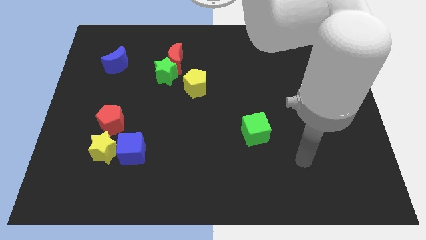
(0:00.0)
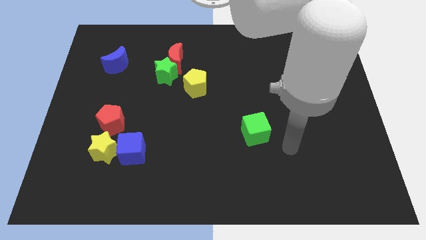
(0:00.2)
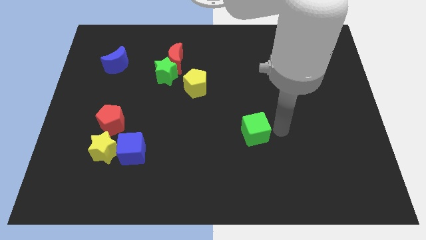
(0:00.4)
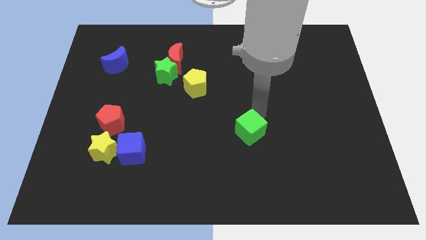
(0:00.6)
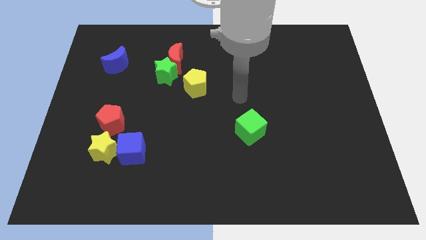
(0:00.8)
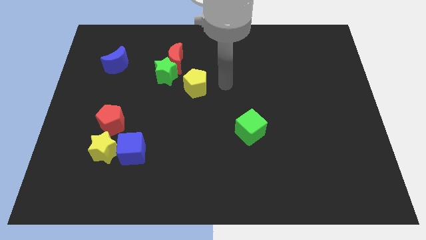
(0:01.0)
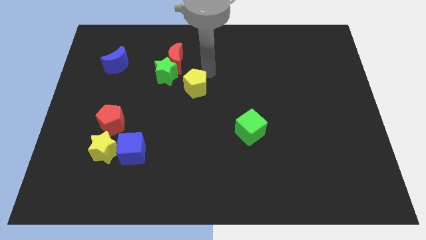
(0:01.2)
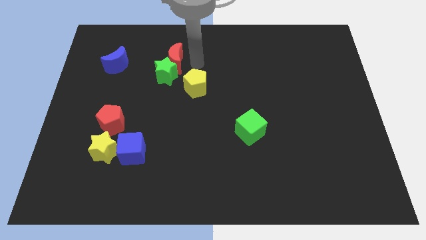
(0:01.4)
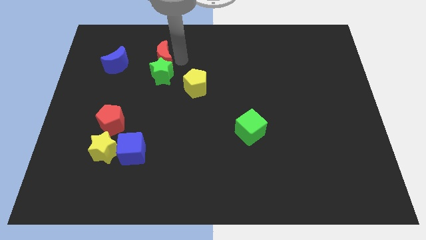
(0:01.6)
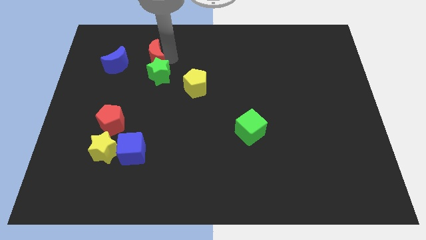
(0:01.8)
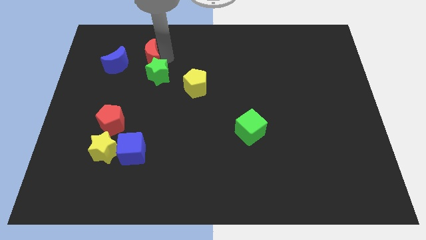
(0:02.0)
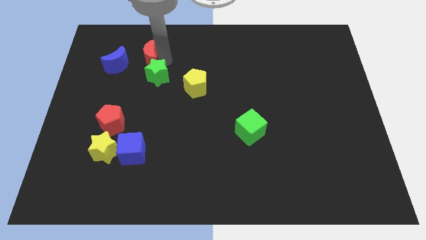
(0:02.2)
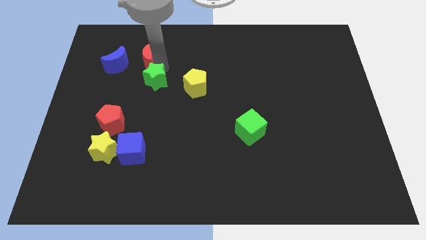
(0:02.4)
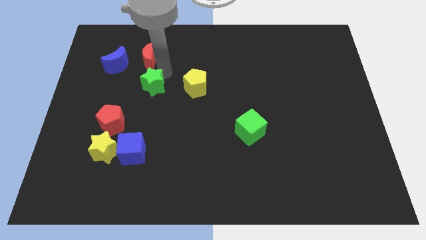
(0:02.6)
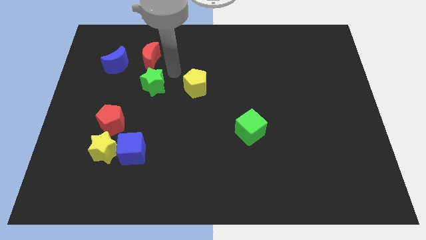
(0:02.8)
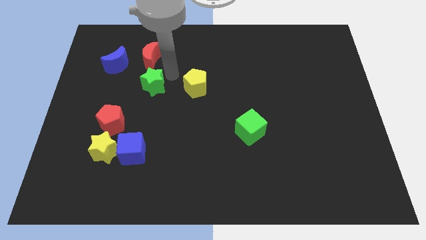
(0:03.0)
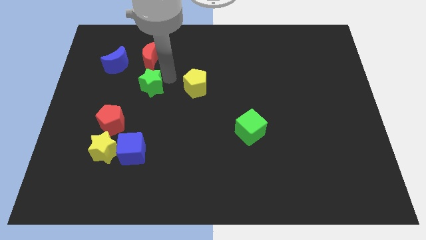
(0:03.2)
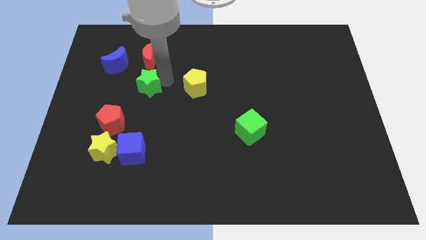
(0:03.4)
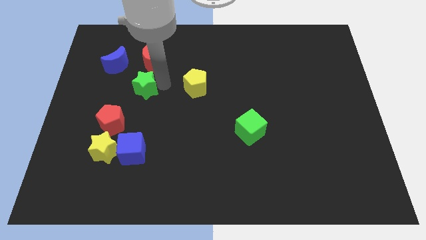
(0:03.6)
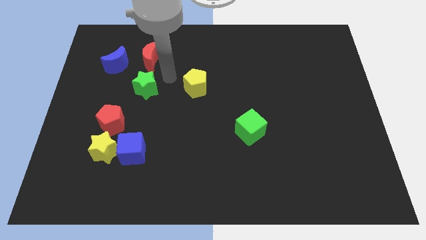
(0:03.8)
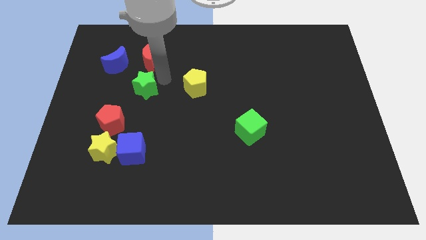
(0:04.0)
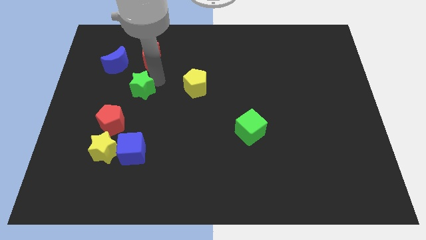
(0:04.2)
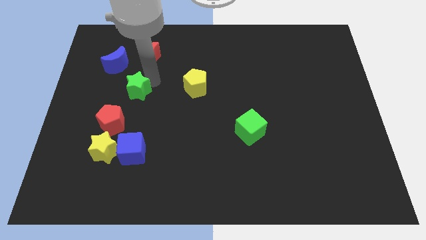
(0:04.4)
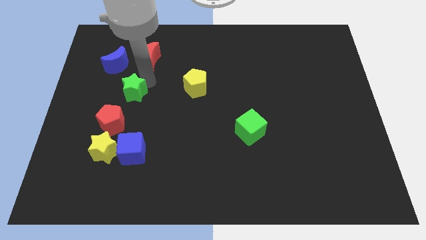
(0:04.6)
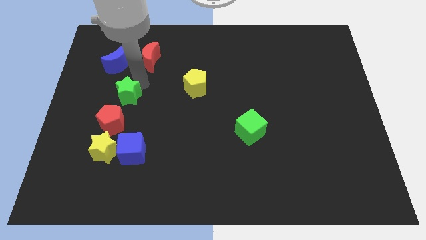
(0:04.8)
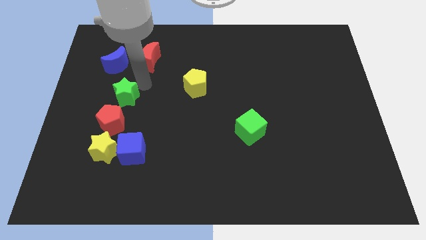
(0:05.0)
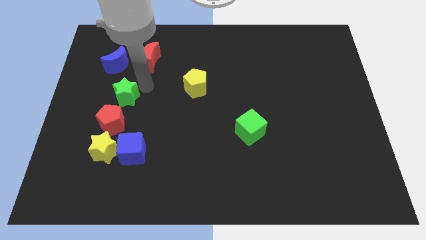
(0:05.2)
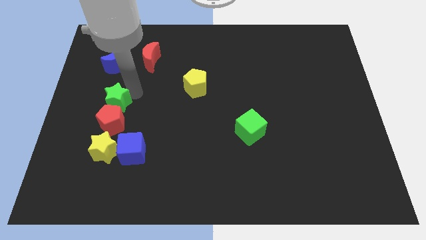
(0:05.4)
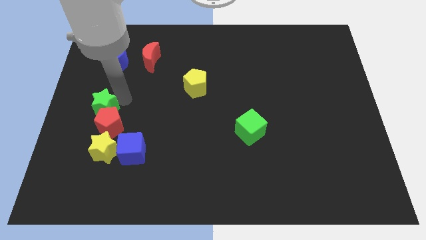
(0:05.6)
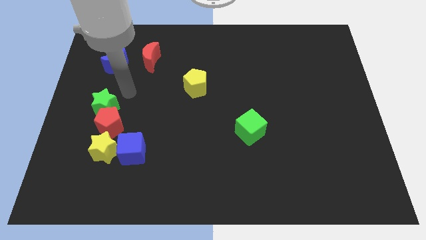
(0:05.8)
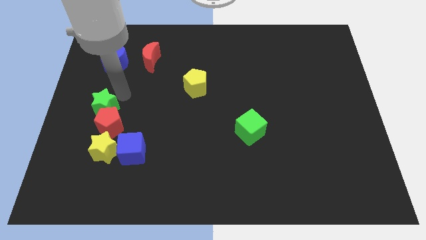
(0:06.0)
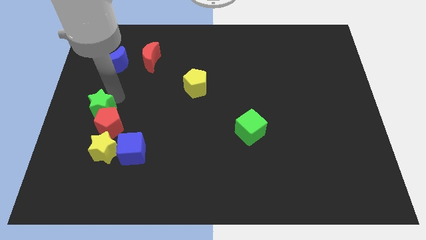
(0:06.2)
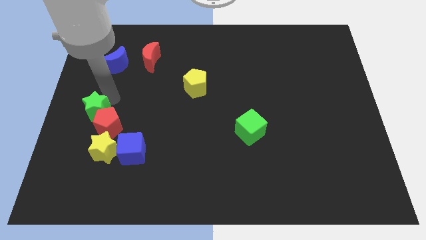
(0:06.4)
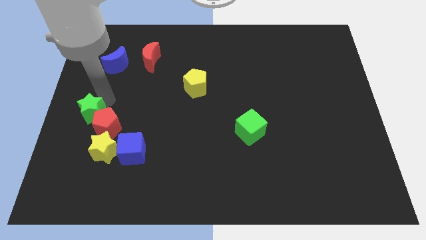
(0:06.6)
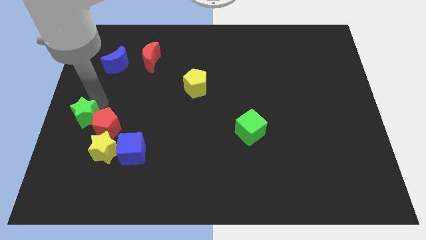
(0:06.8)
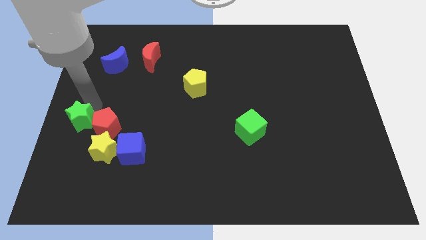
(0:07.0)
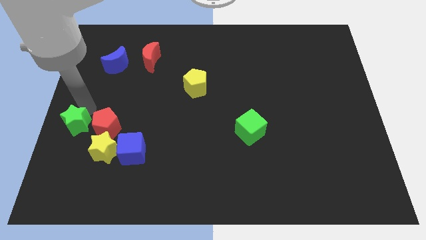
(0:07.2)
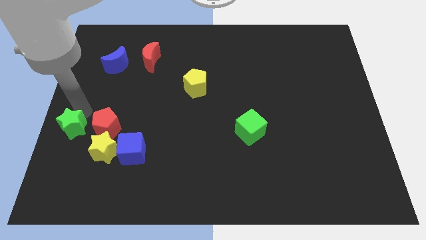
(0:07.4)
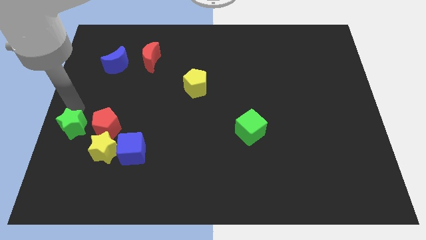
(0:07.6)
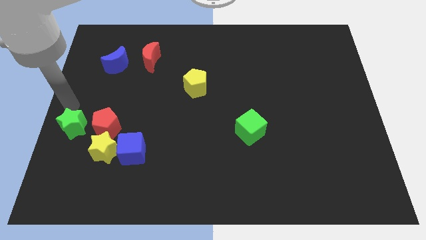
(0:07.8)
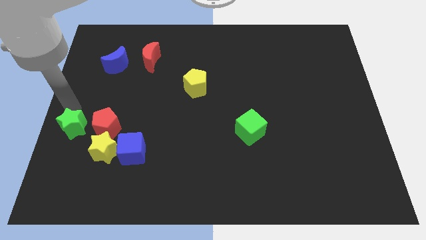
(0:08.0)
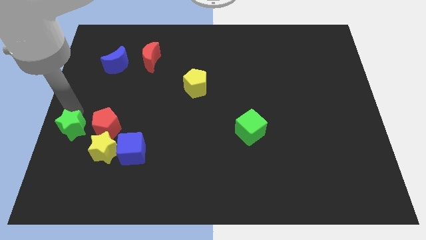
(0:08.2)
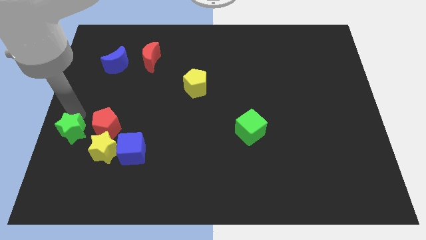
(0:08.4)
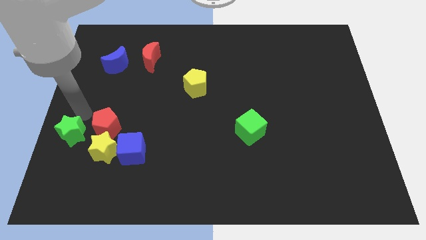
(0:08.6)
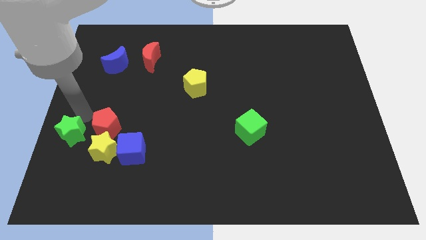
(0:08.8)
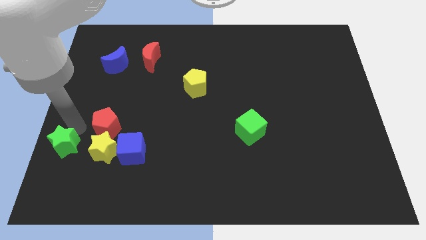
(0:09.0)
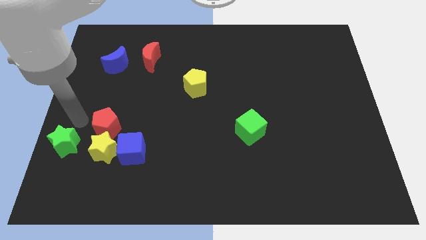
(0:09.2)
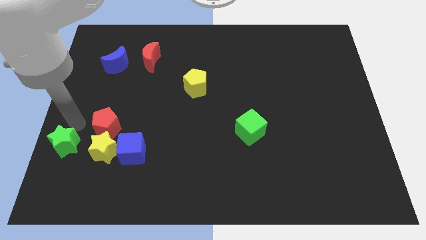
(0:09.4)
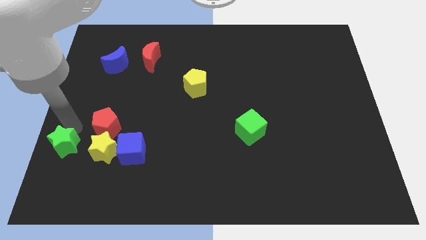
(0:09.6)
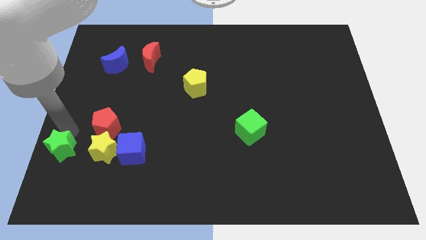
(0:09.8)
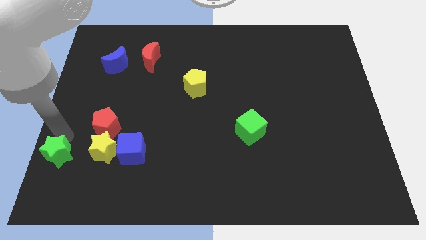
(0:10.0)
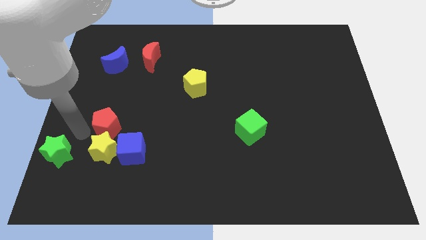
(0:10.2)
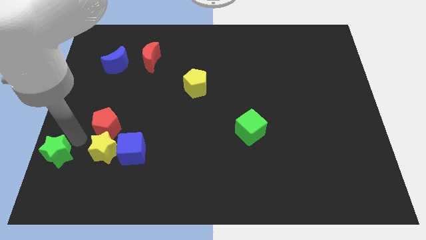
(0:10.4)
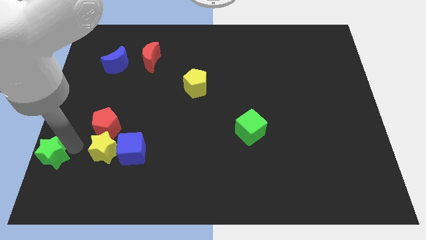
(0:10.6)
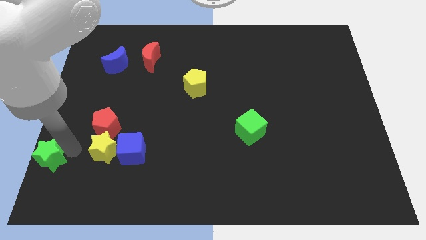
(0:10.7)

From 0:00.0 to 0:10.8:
put the green star to the bottom left corner

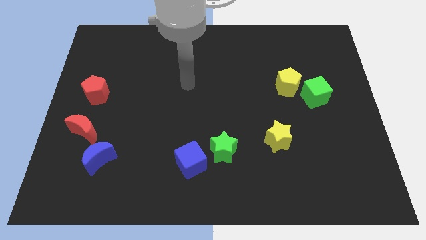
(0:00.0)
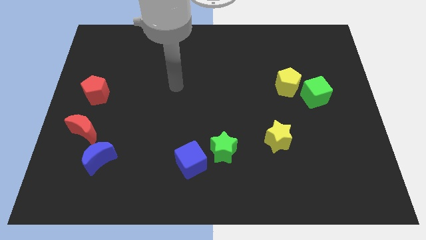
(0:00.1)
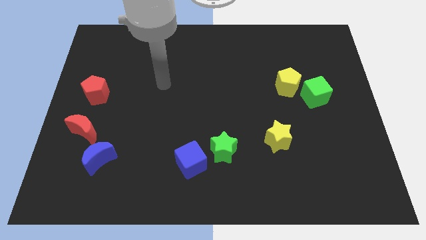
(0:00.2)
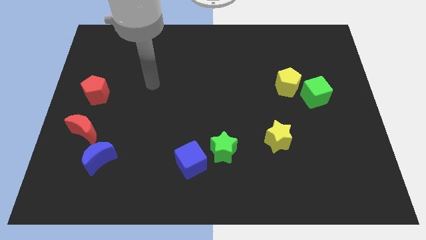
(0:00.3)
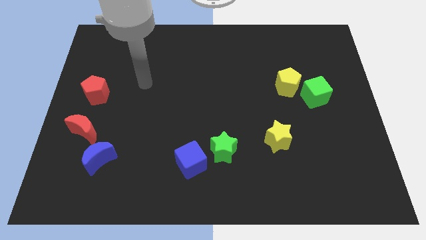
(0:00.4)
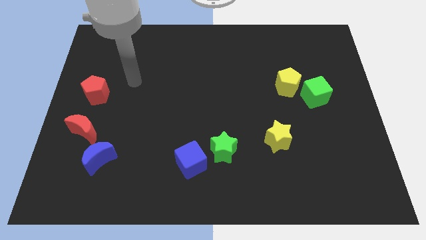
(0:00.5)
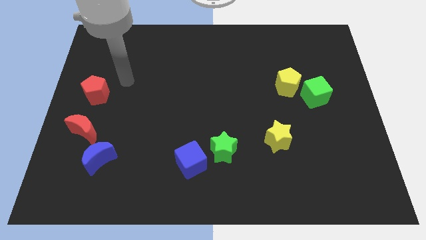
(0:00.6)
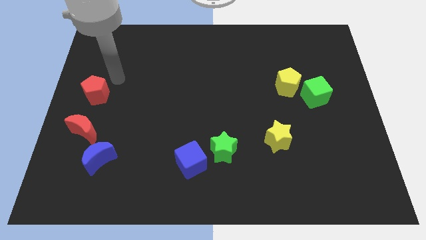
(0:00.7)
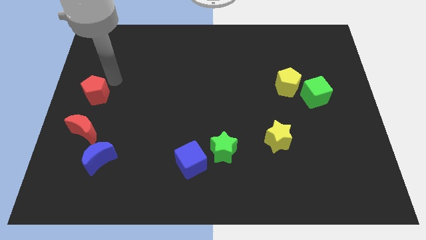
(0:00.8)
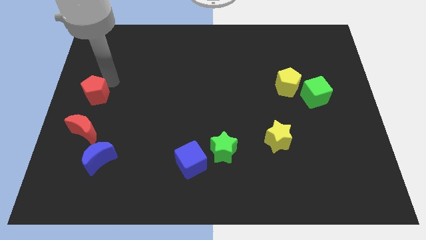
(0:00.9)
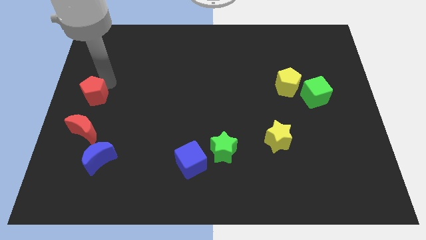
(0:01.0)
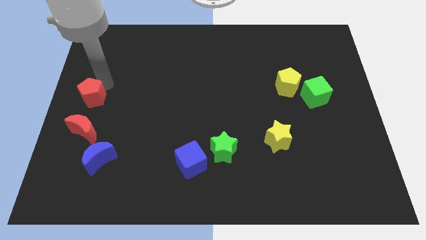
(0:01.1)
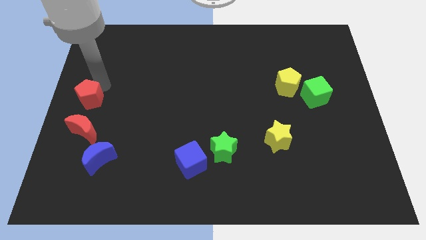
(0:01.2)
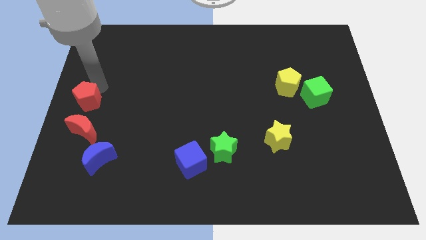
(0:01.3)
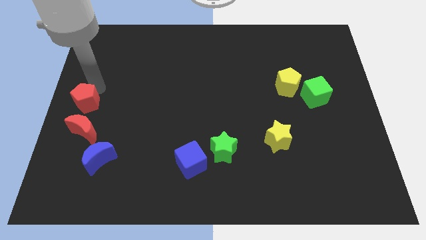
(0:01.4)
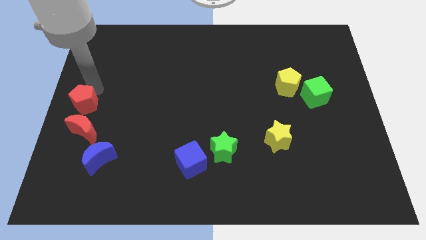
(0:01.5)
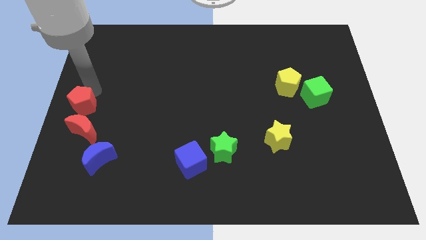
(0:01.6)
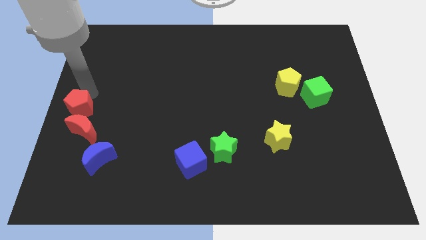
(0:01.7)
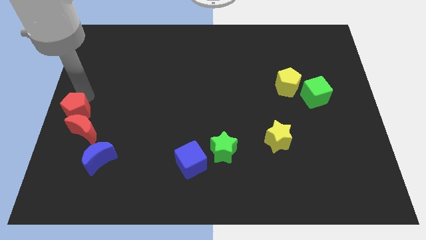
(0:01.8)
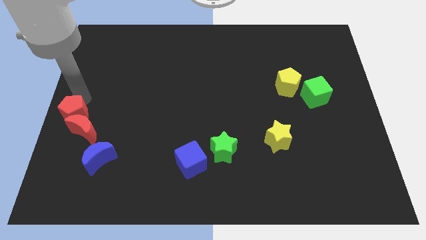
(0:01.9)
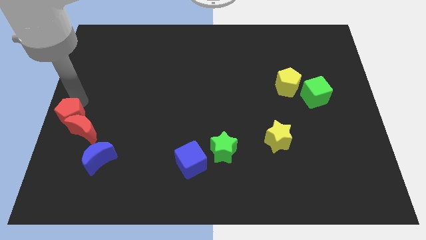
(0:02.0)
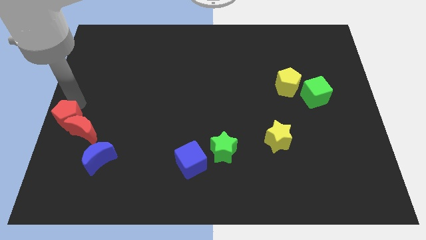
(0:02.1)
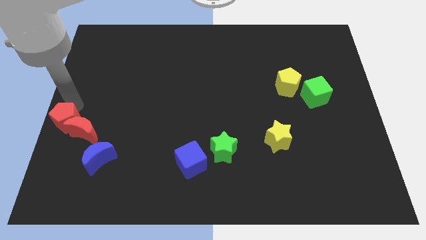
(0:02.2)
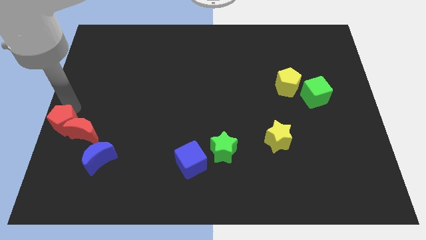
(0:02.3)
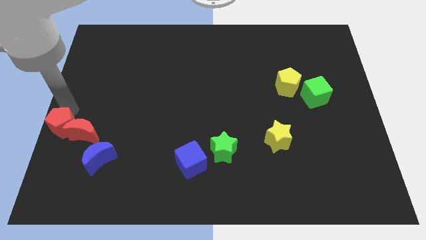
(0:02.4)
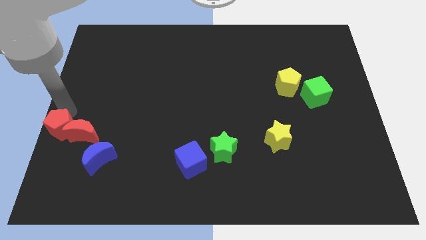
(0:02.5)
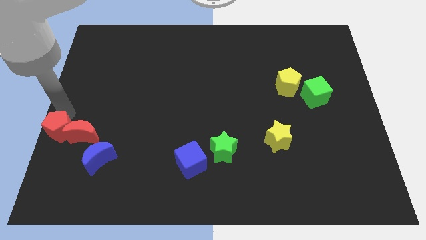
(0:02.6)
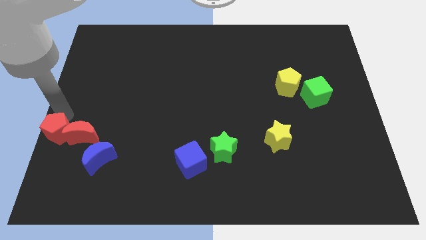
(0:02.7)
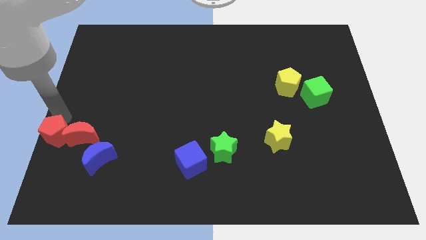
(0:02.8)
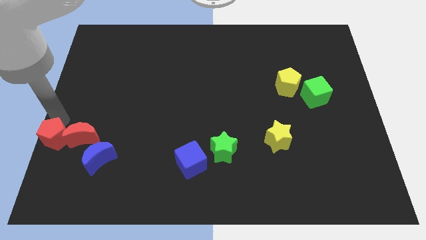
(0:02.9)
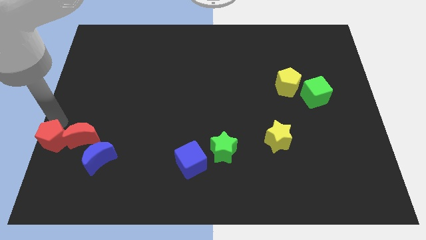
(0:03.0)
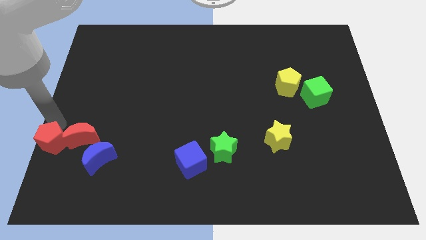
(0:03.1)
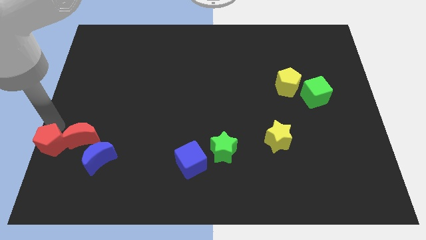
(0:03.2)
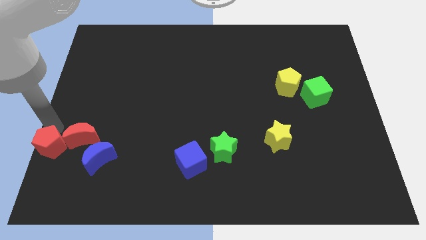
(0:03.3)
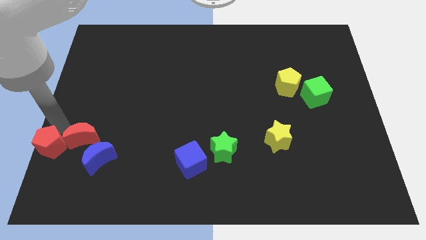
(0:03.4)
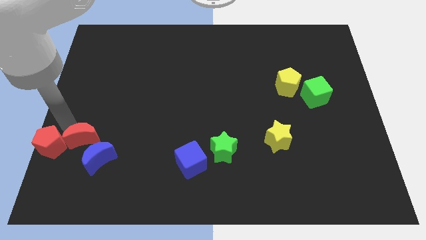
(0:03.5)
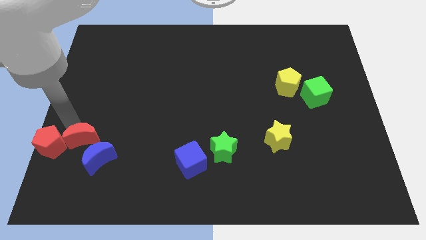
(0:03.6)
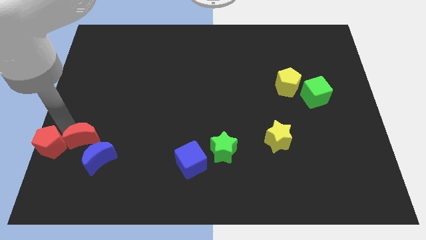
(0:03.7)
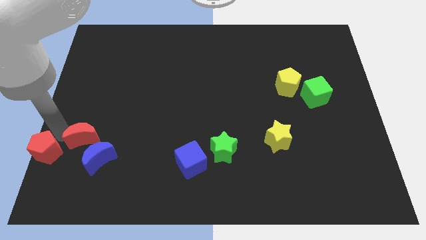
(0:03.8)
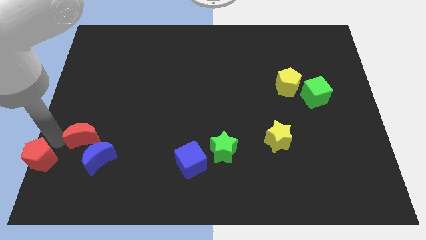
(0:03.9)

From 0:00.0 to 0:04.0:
slide the red pentagon to the bottom left of the board
